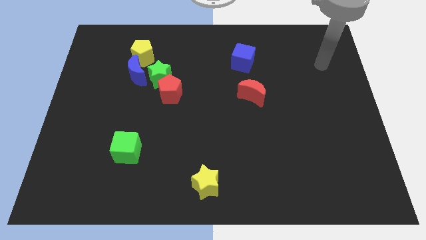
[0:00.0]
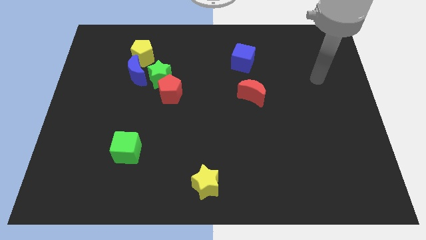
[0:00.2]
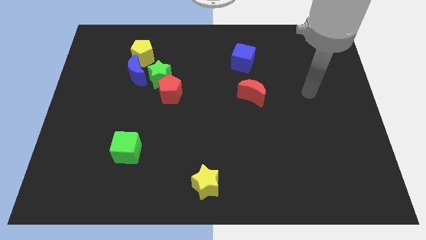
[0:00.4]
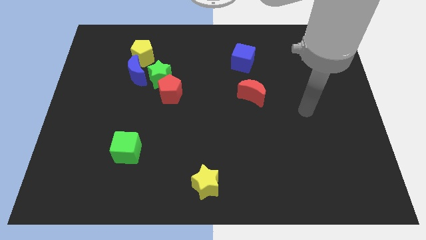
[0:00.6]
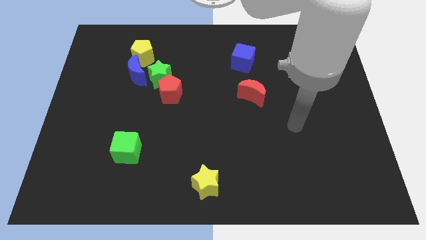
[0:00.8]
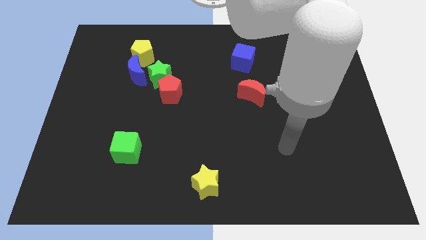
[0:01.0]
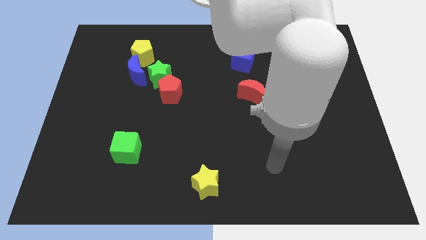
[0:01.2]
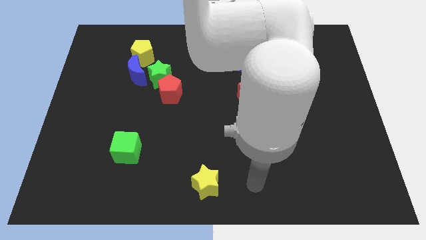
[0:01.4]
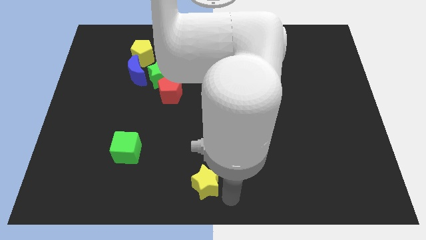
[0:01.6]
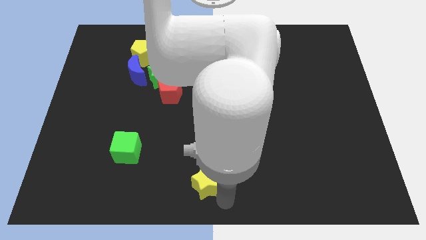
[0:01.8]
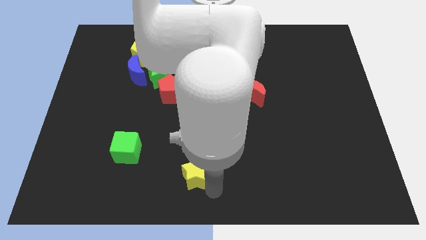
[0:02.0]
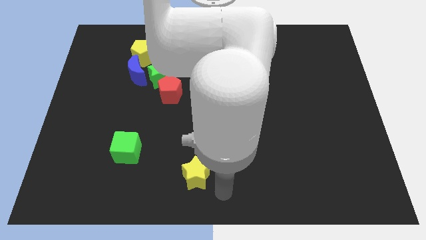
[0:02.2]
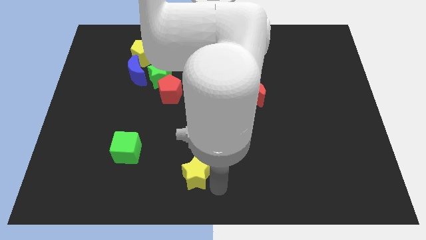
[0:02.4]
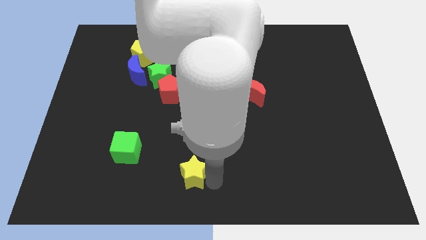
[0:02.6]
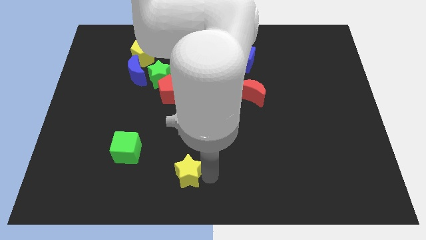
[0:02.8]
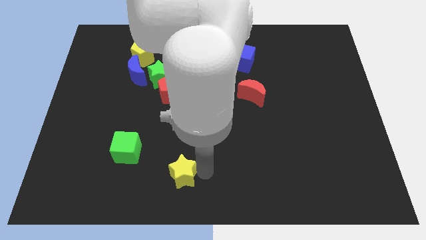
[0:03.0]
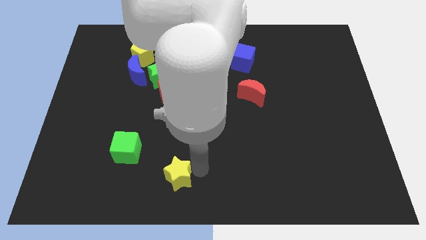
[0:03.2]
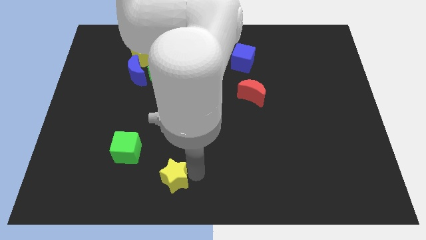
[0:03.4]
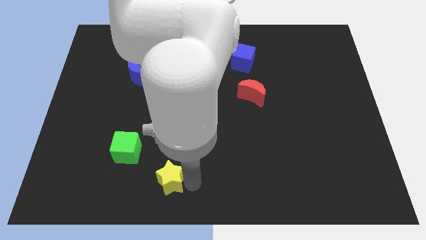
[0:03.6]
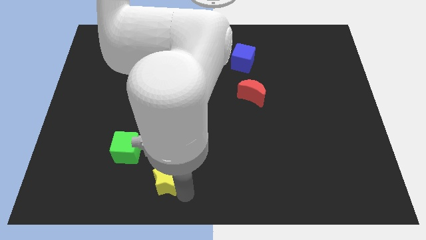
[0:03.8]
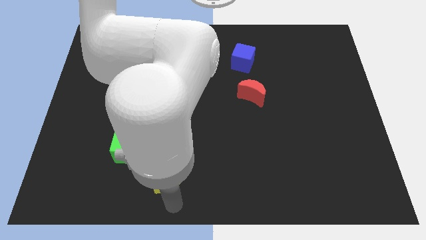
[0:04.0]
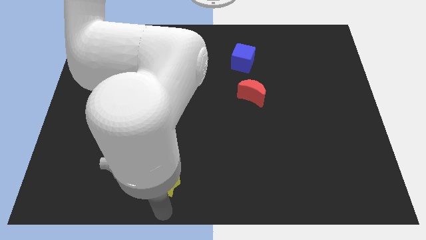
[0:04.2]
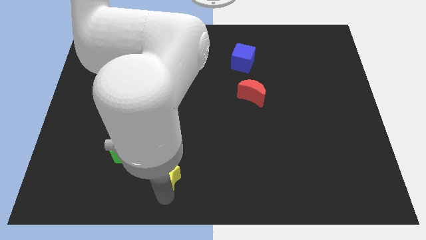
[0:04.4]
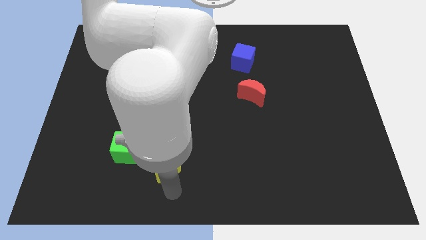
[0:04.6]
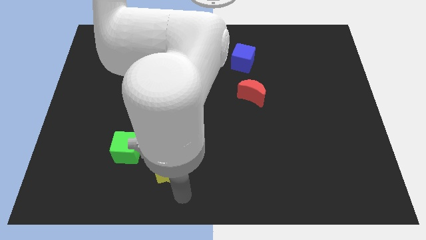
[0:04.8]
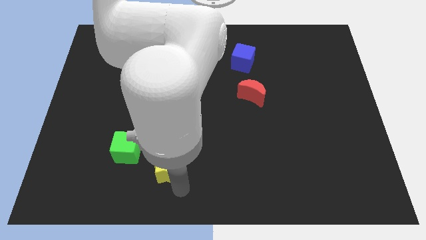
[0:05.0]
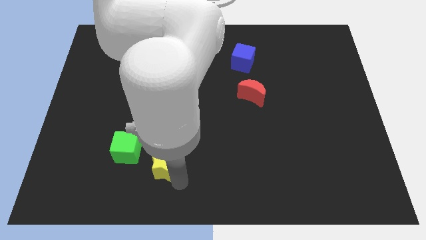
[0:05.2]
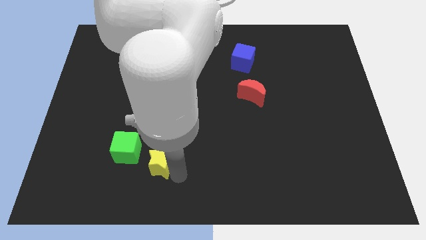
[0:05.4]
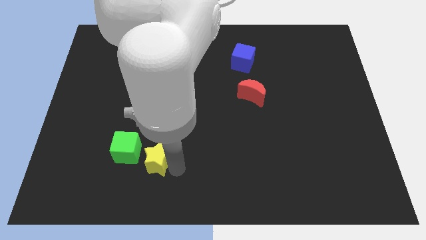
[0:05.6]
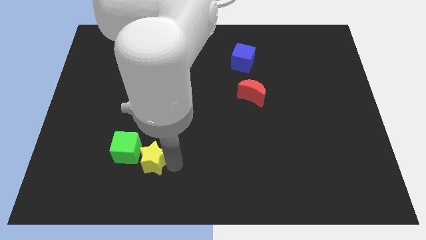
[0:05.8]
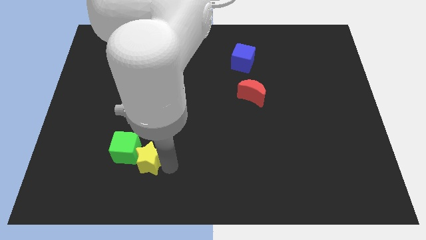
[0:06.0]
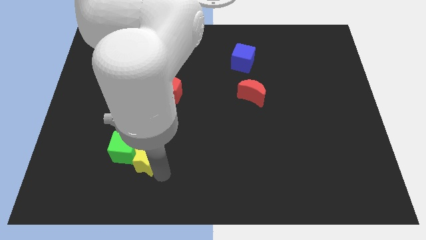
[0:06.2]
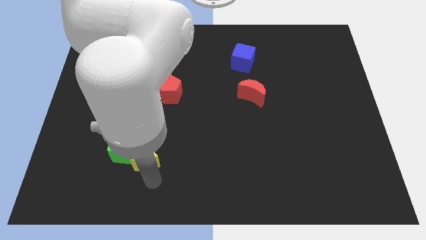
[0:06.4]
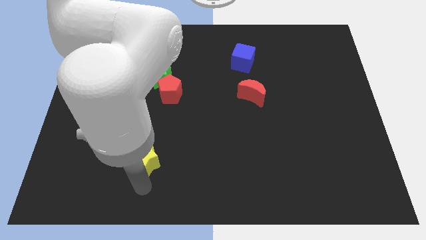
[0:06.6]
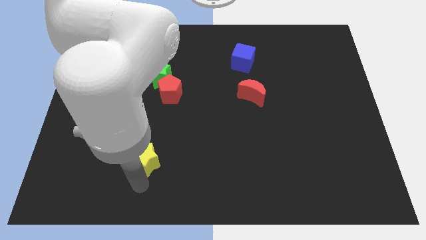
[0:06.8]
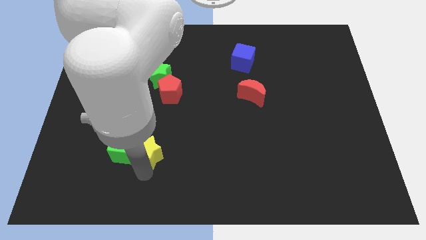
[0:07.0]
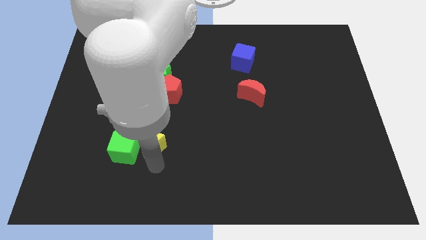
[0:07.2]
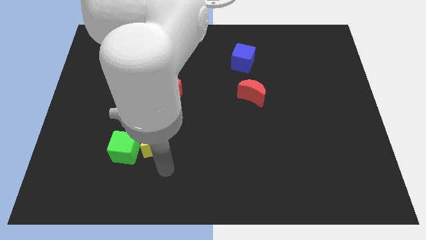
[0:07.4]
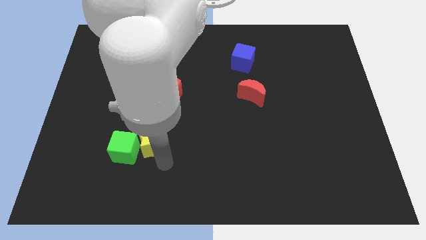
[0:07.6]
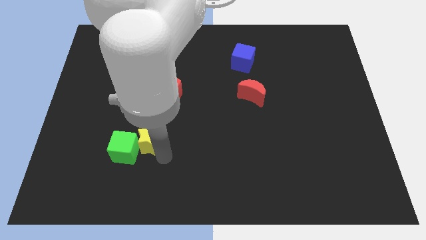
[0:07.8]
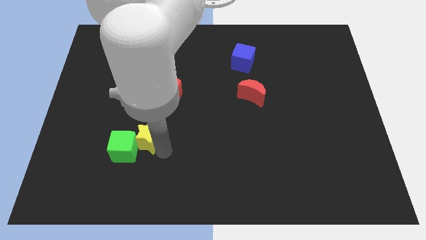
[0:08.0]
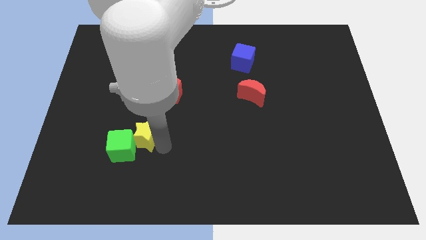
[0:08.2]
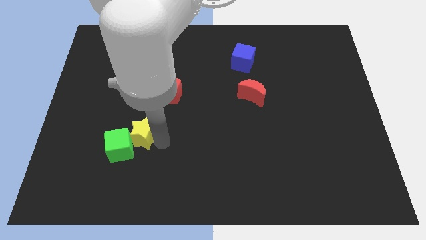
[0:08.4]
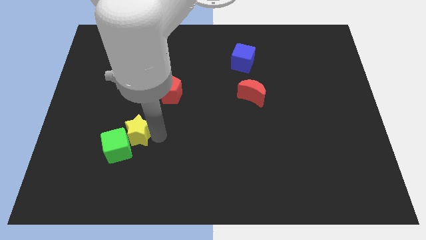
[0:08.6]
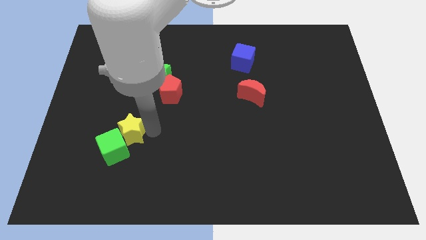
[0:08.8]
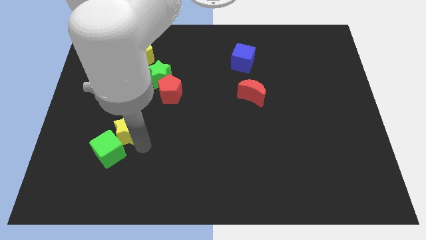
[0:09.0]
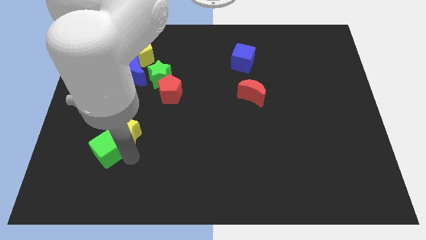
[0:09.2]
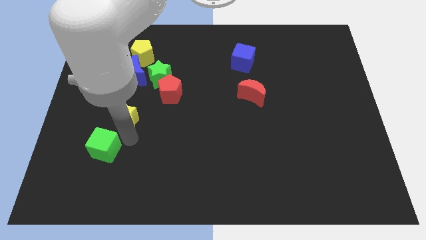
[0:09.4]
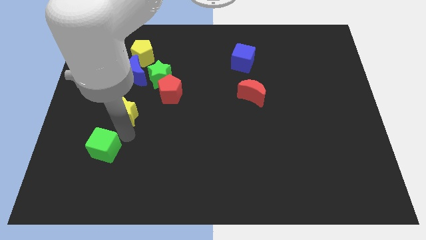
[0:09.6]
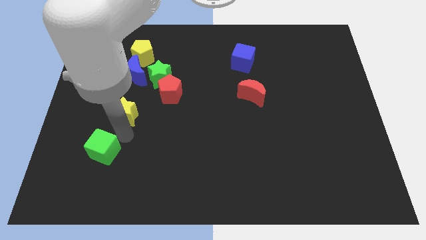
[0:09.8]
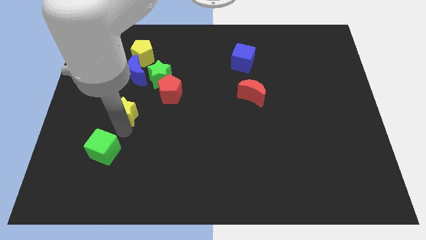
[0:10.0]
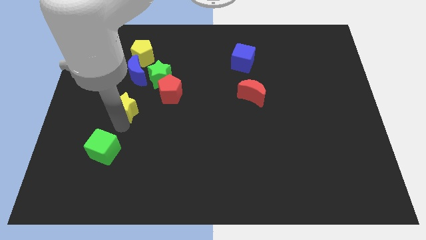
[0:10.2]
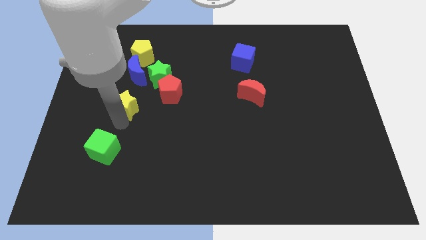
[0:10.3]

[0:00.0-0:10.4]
move the yellow star left of the red pentagon

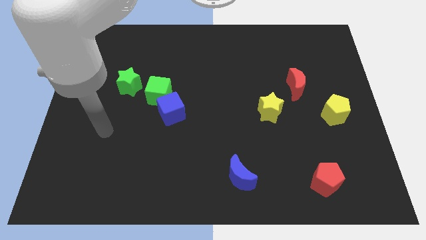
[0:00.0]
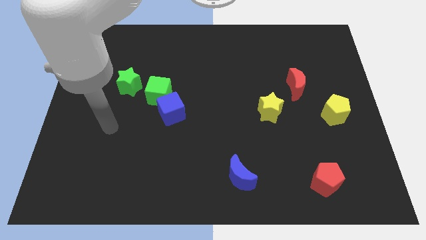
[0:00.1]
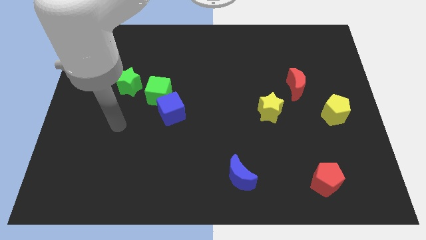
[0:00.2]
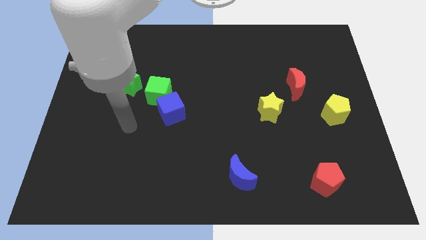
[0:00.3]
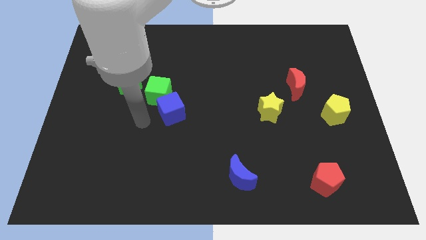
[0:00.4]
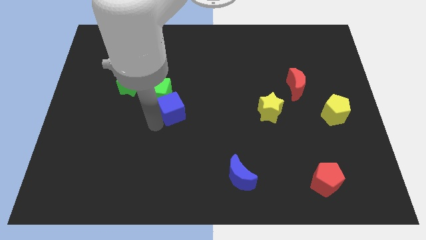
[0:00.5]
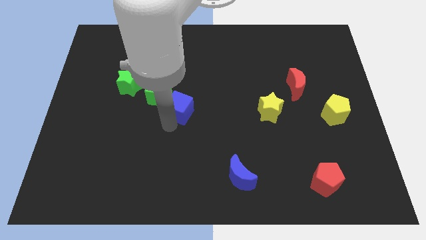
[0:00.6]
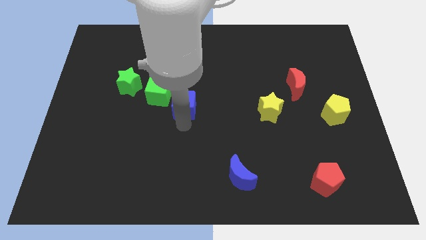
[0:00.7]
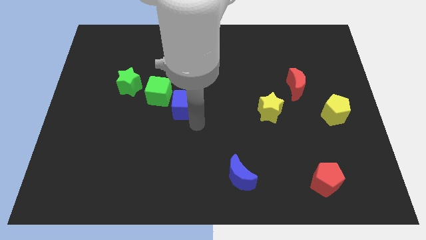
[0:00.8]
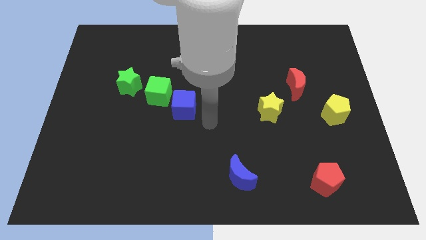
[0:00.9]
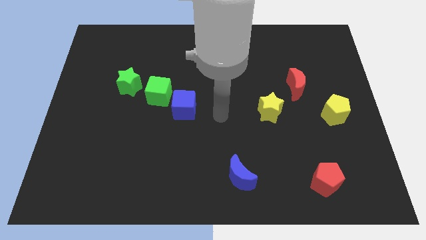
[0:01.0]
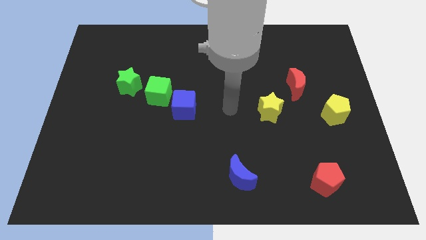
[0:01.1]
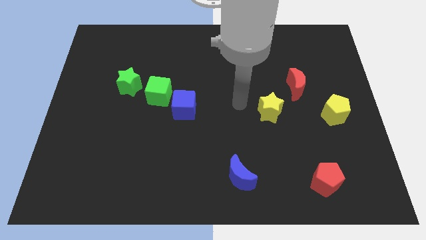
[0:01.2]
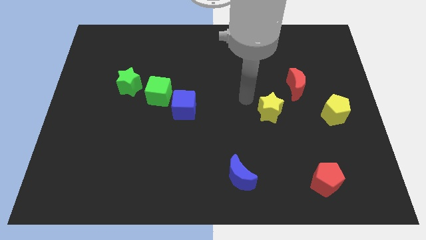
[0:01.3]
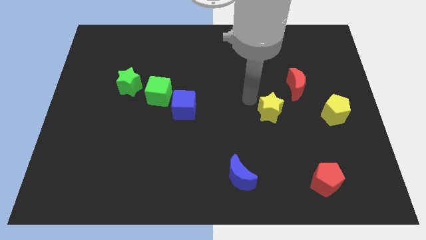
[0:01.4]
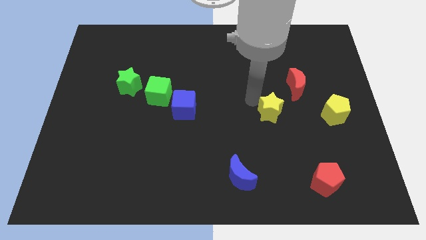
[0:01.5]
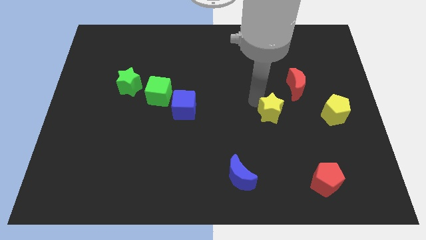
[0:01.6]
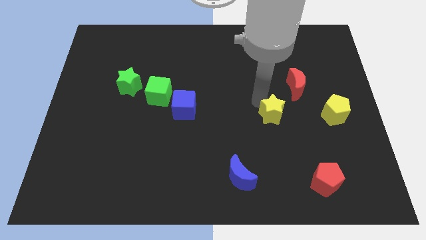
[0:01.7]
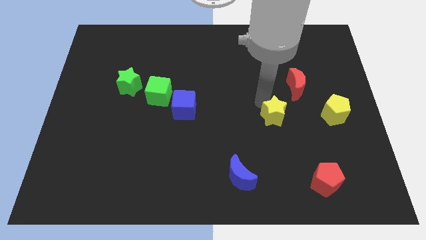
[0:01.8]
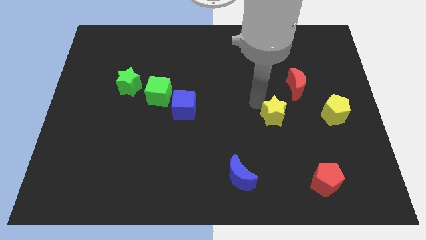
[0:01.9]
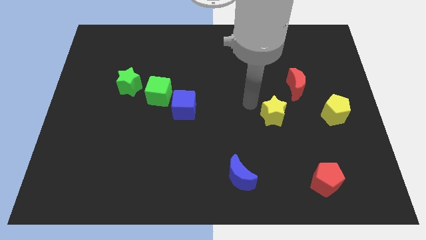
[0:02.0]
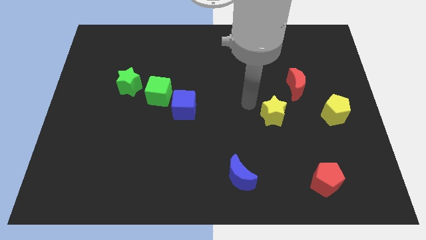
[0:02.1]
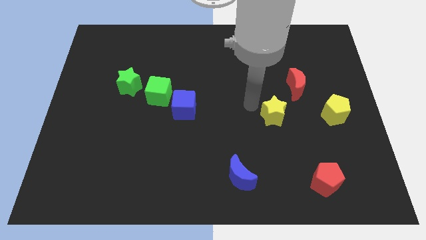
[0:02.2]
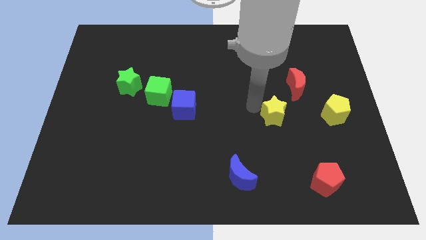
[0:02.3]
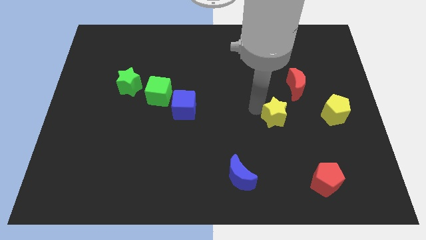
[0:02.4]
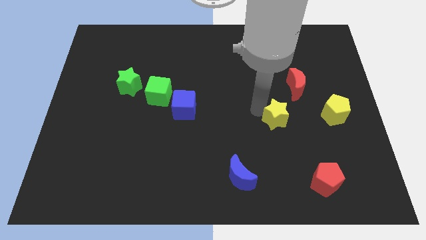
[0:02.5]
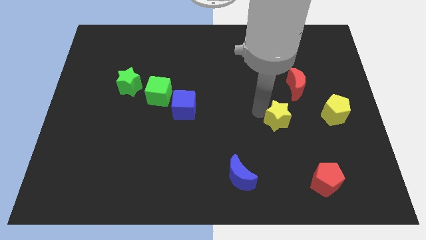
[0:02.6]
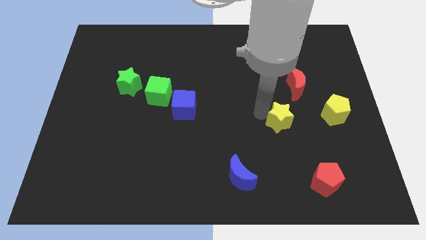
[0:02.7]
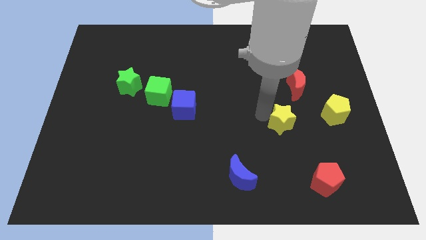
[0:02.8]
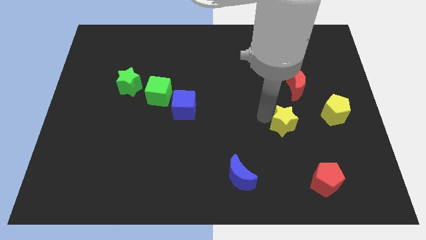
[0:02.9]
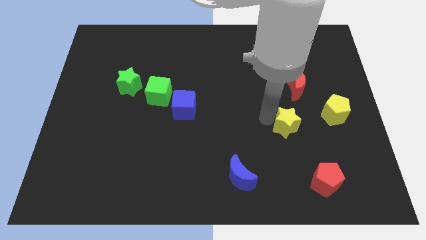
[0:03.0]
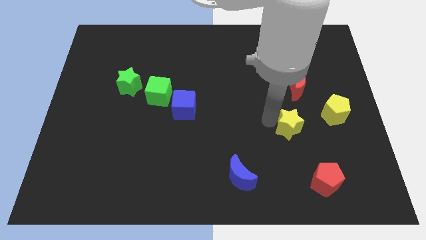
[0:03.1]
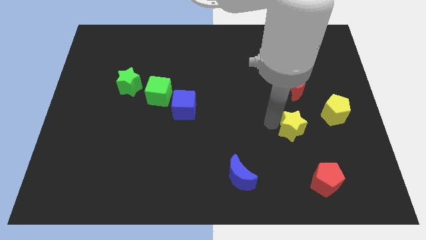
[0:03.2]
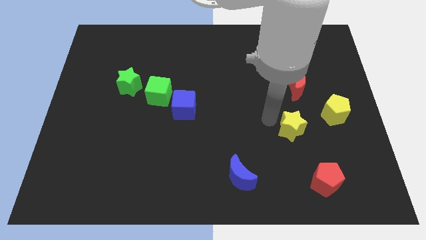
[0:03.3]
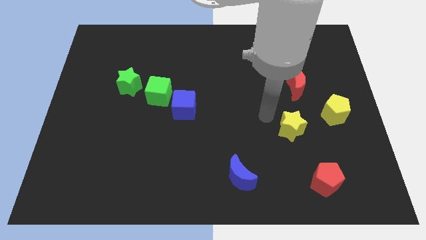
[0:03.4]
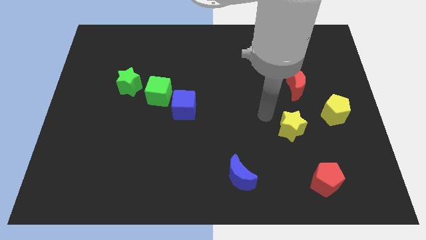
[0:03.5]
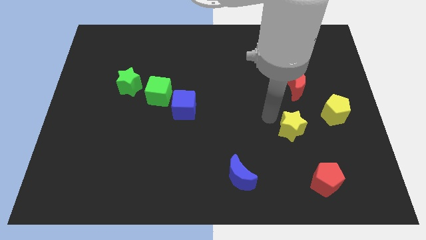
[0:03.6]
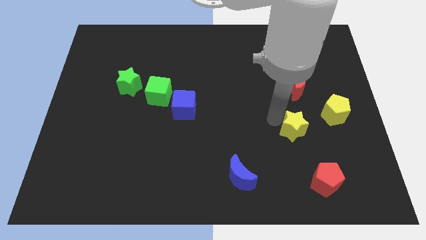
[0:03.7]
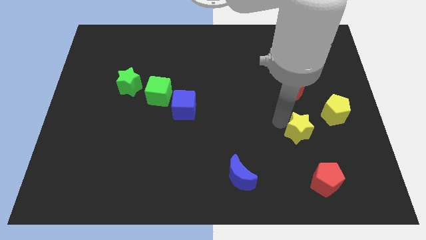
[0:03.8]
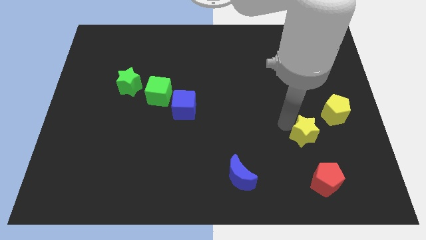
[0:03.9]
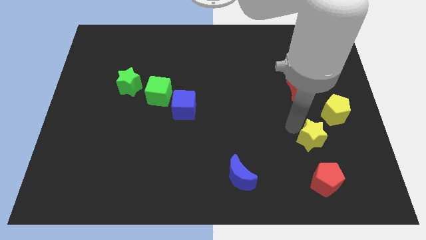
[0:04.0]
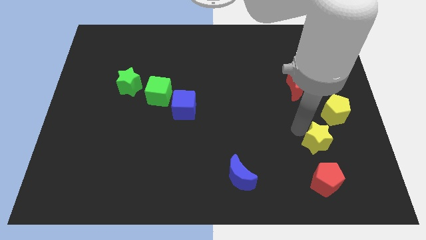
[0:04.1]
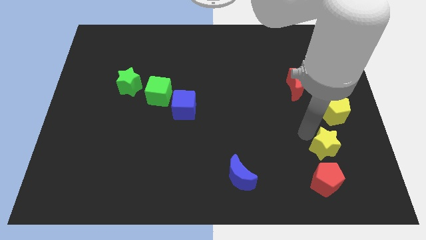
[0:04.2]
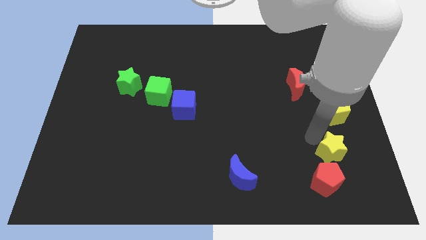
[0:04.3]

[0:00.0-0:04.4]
slide the yellow star to the top right of the red pentagon
